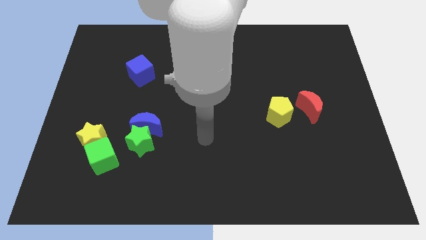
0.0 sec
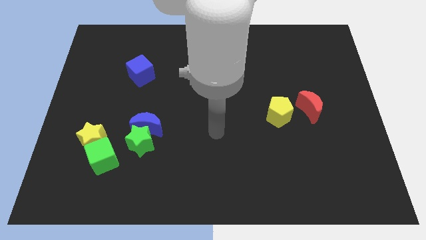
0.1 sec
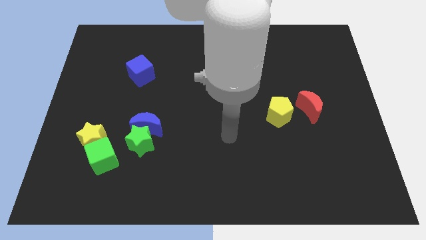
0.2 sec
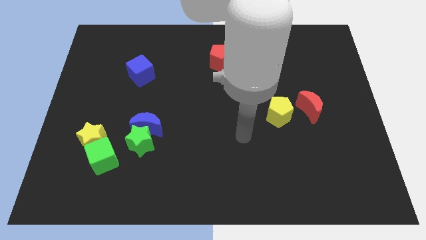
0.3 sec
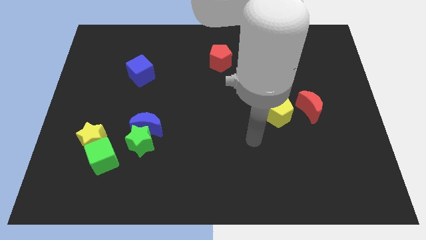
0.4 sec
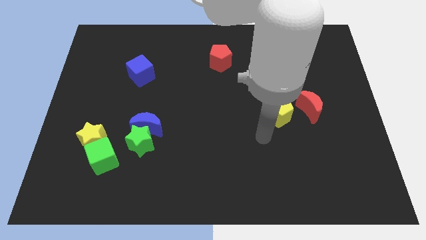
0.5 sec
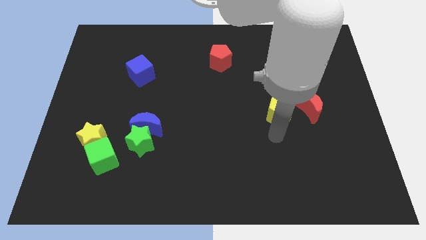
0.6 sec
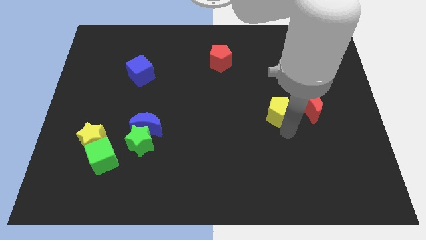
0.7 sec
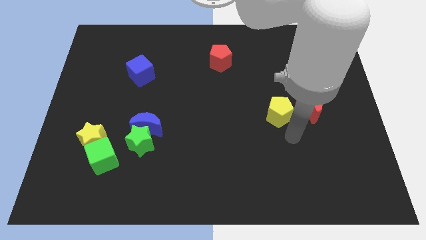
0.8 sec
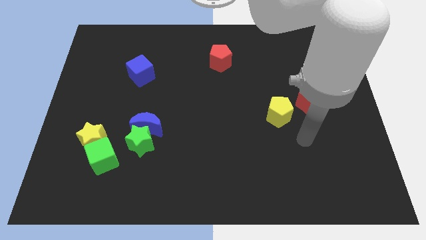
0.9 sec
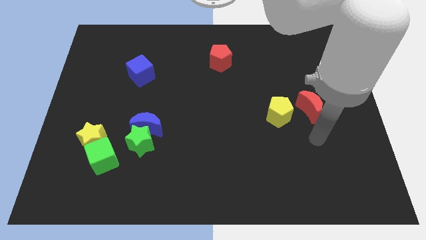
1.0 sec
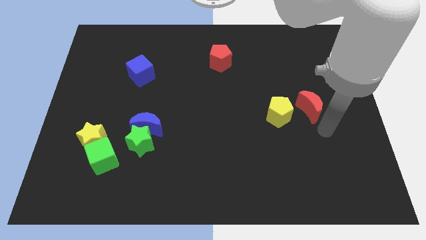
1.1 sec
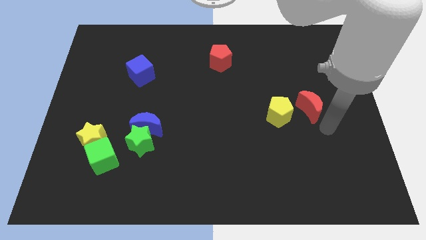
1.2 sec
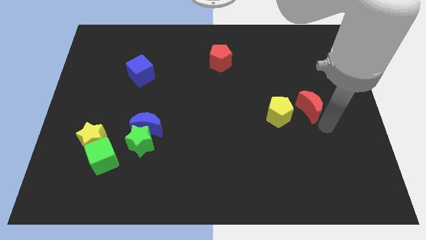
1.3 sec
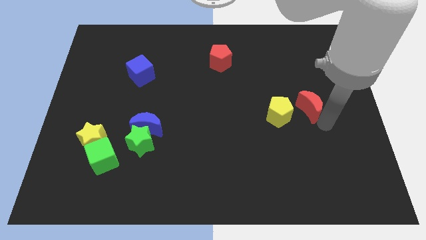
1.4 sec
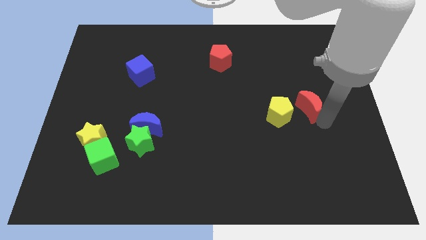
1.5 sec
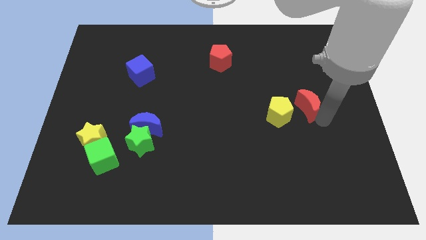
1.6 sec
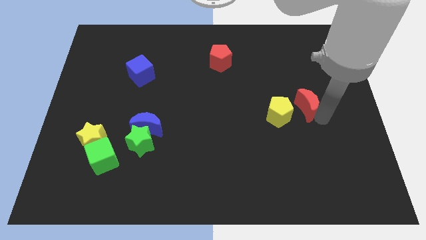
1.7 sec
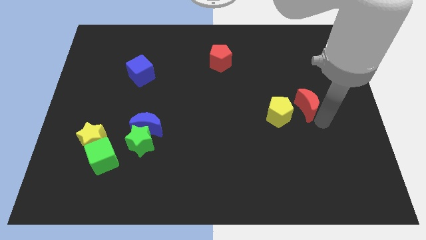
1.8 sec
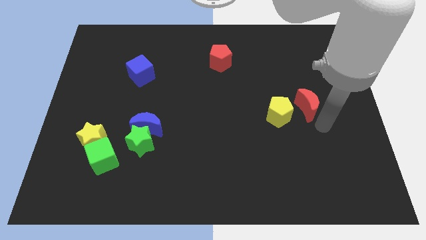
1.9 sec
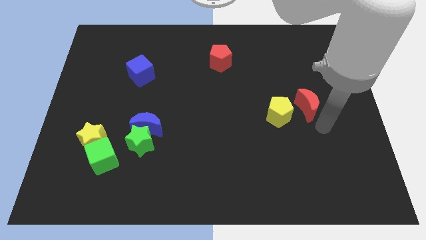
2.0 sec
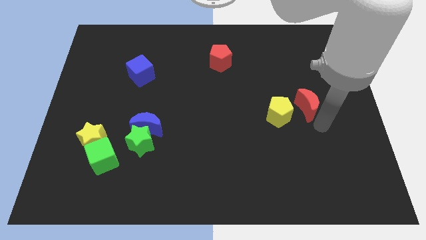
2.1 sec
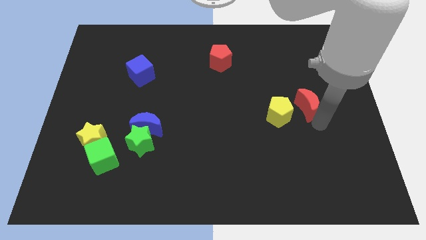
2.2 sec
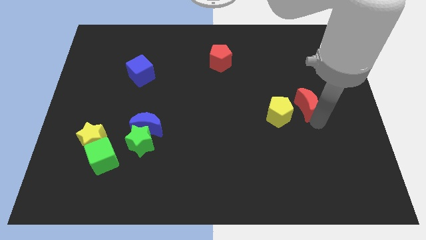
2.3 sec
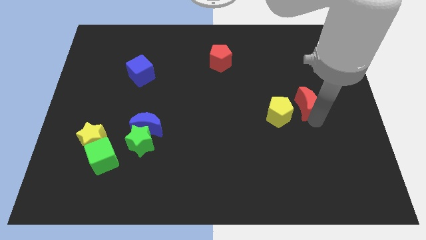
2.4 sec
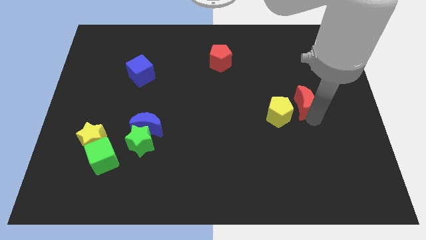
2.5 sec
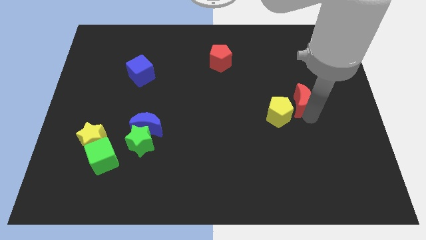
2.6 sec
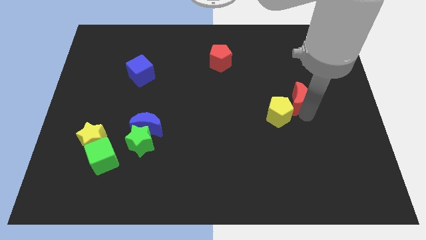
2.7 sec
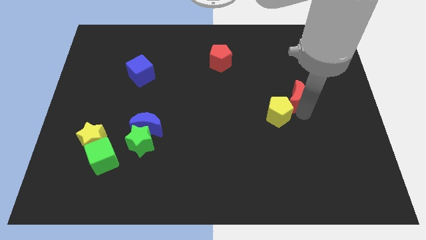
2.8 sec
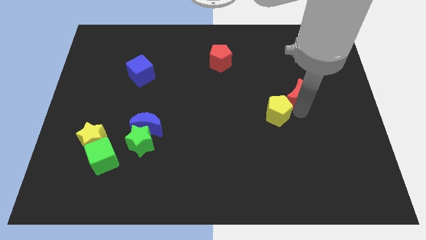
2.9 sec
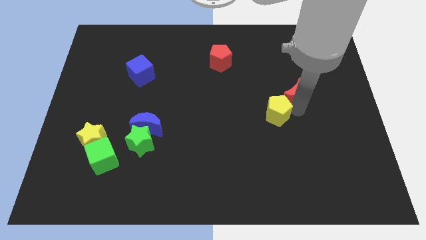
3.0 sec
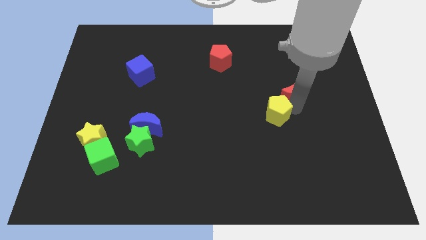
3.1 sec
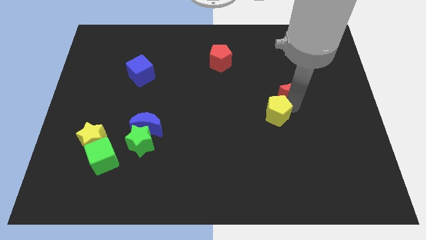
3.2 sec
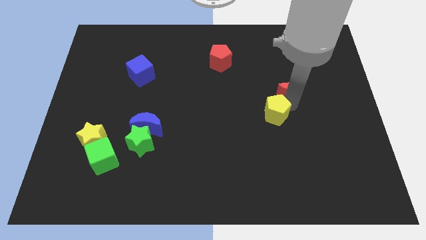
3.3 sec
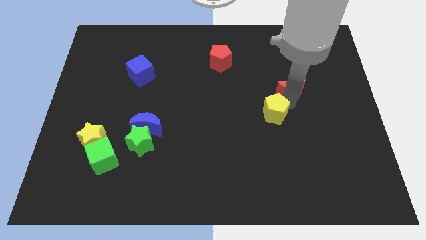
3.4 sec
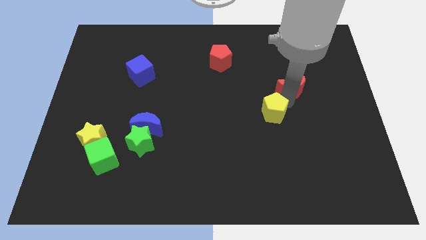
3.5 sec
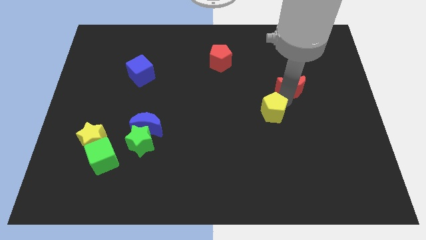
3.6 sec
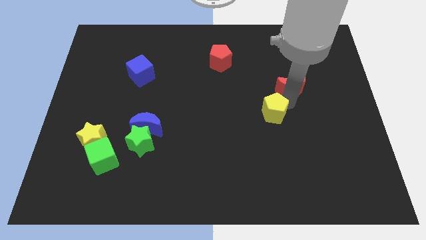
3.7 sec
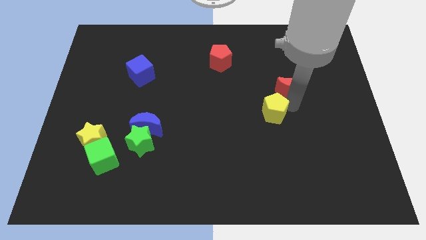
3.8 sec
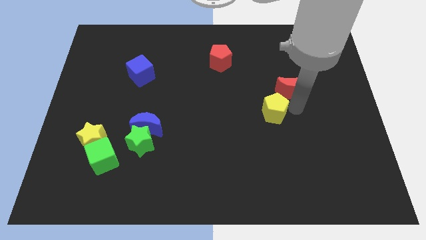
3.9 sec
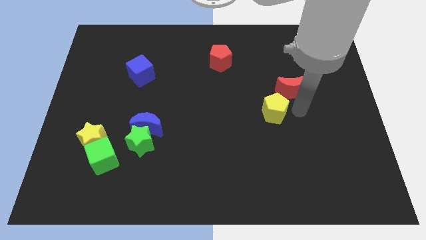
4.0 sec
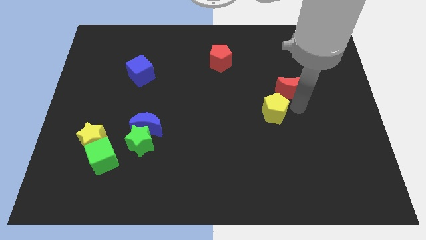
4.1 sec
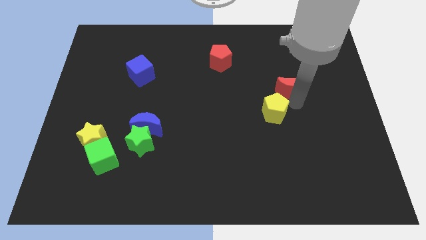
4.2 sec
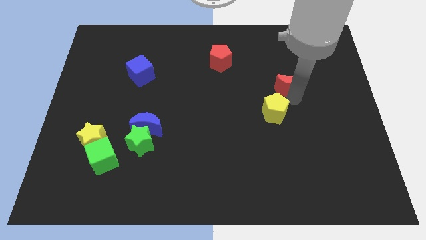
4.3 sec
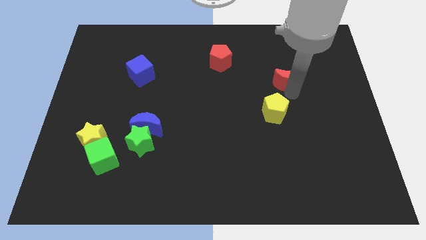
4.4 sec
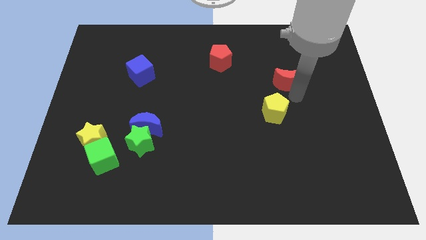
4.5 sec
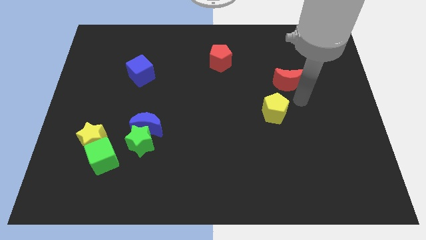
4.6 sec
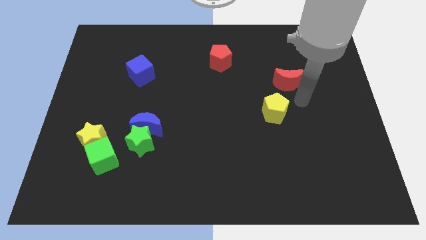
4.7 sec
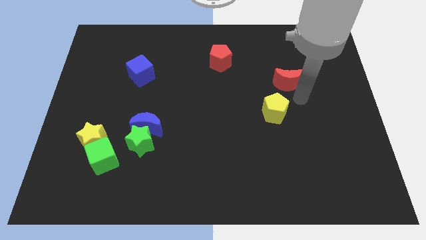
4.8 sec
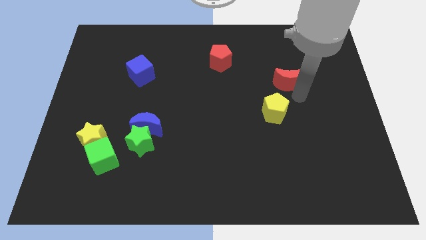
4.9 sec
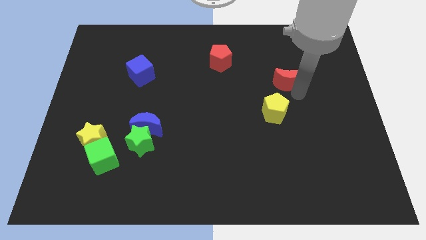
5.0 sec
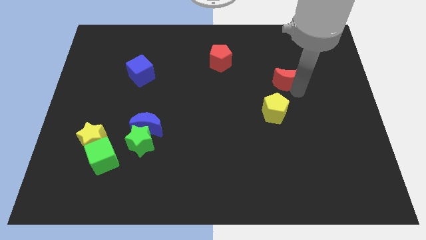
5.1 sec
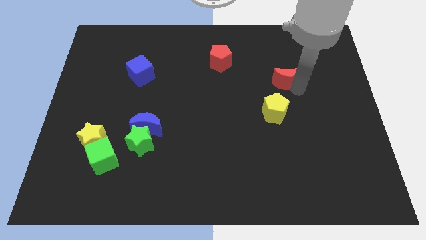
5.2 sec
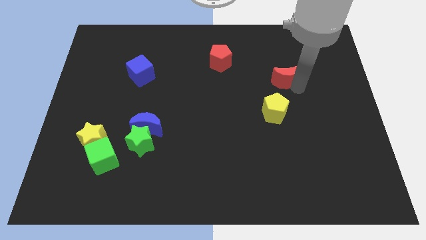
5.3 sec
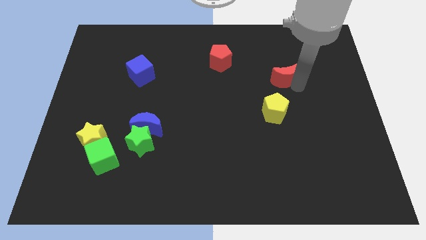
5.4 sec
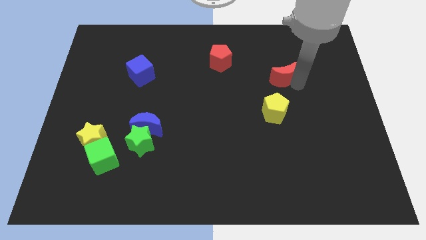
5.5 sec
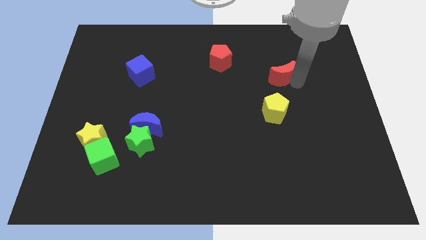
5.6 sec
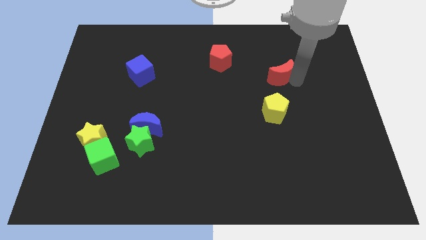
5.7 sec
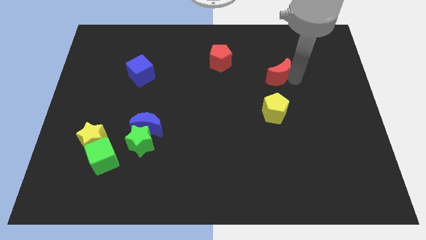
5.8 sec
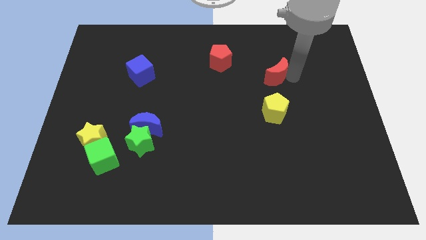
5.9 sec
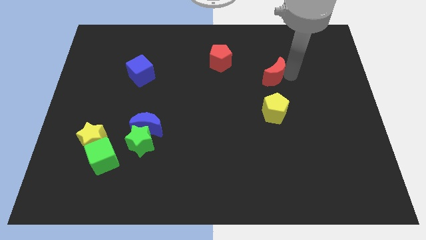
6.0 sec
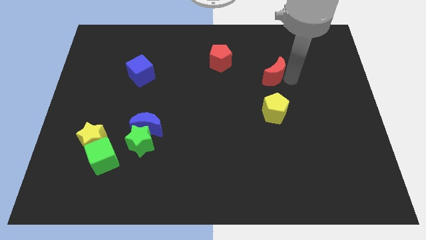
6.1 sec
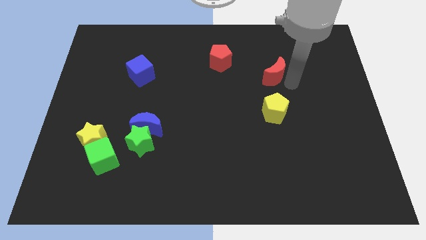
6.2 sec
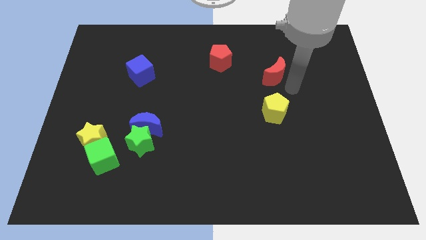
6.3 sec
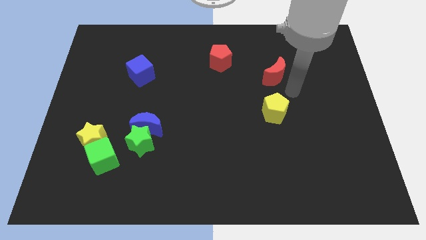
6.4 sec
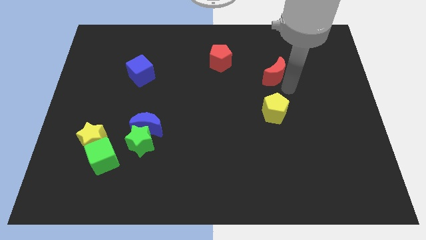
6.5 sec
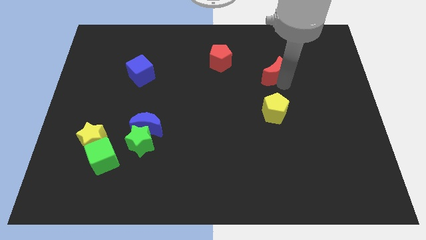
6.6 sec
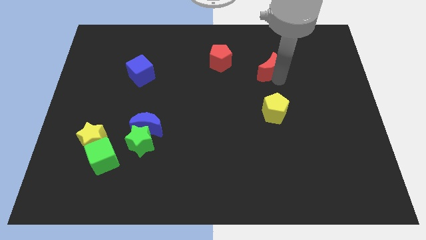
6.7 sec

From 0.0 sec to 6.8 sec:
put the red moon to the right of the red pentagon
